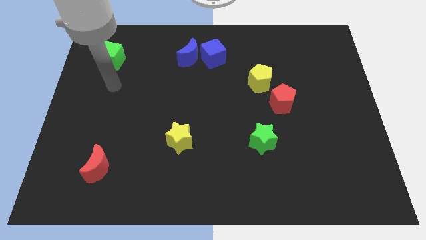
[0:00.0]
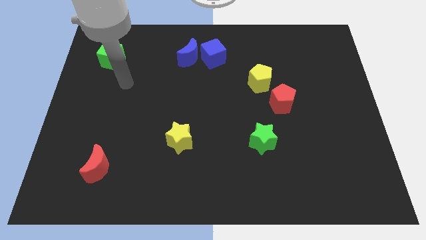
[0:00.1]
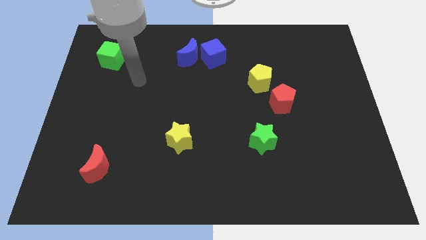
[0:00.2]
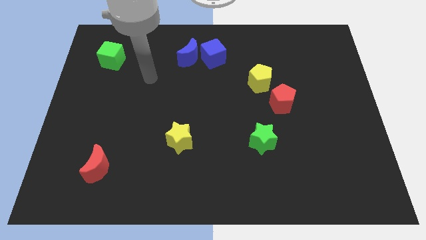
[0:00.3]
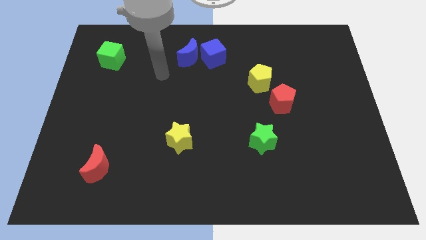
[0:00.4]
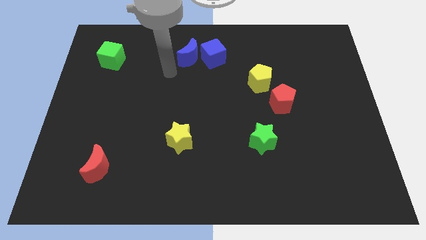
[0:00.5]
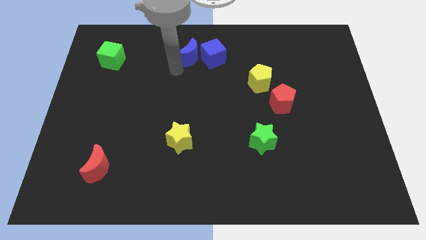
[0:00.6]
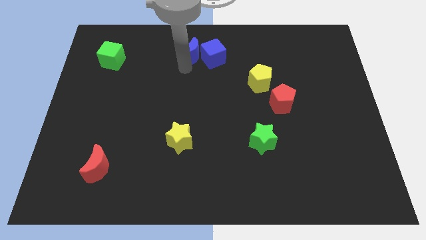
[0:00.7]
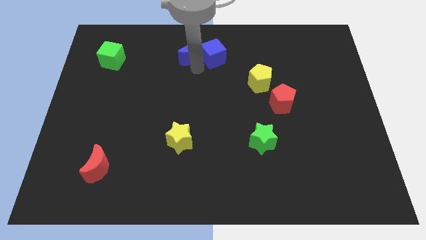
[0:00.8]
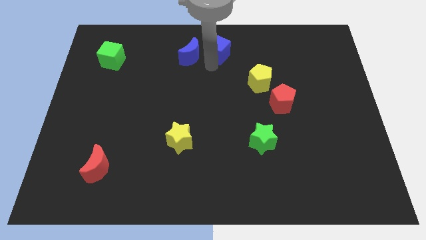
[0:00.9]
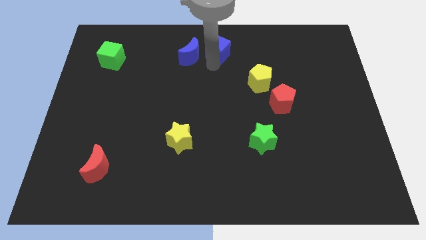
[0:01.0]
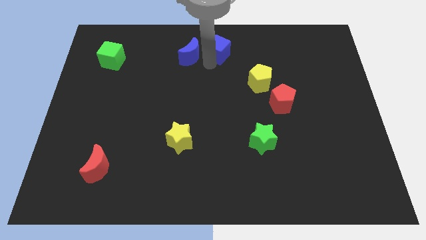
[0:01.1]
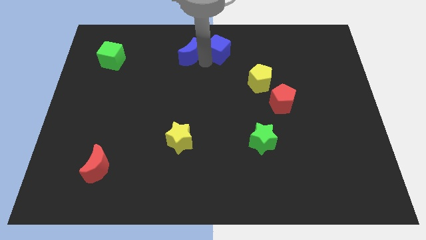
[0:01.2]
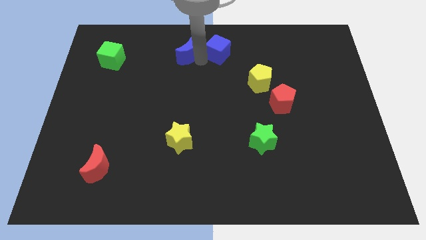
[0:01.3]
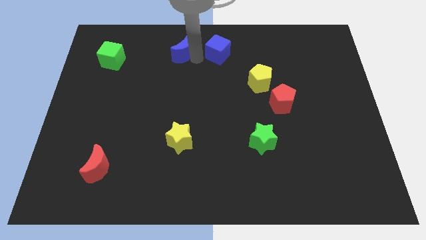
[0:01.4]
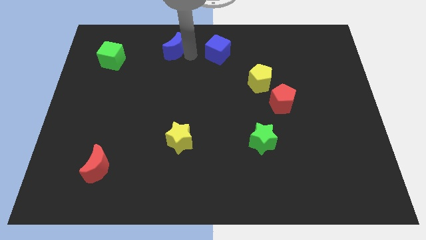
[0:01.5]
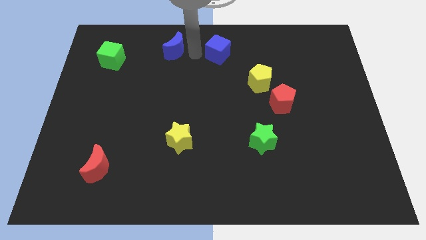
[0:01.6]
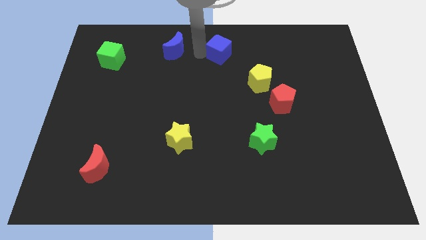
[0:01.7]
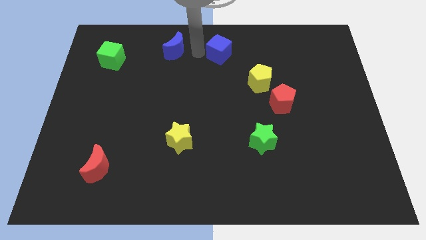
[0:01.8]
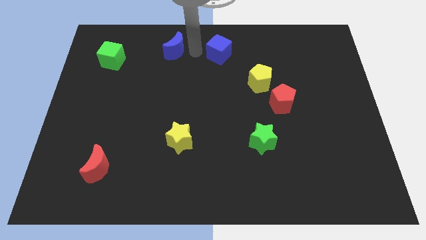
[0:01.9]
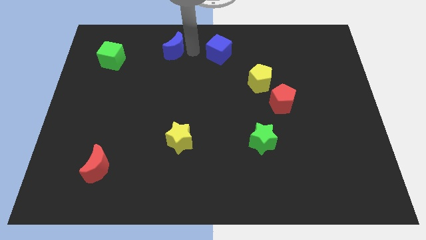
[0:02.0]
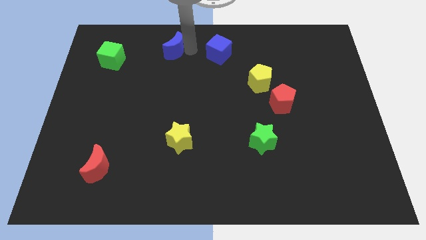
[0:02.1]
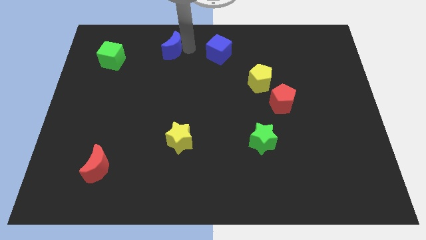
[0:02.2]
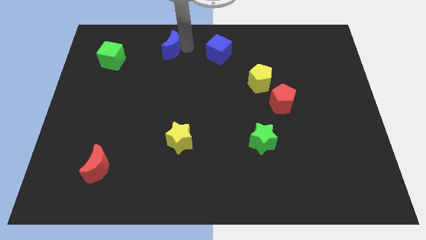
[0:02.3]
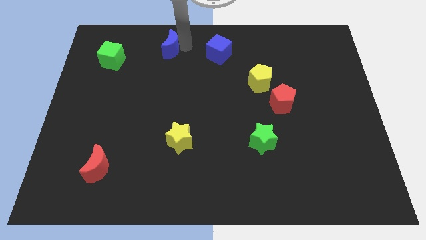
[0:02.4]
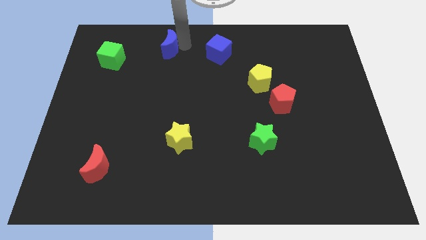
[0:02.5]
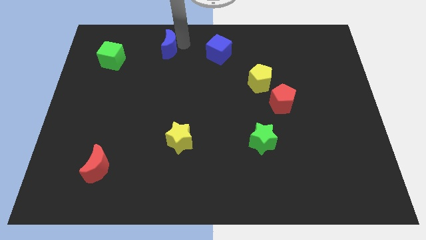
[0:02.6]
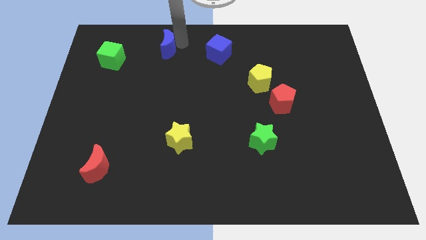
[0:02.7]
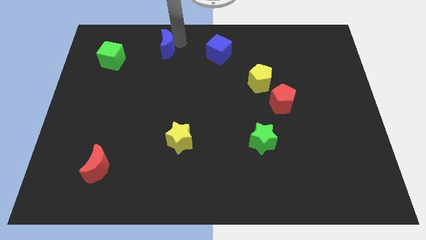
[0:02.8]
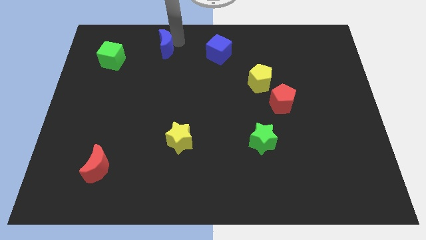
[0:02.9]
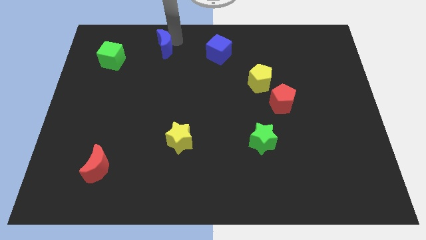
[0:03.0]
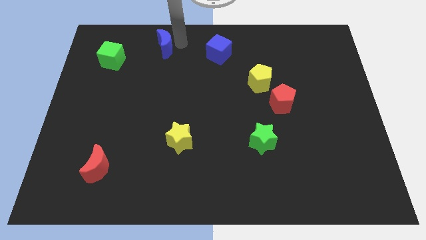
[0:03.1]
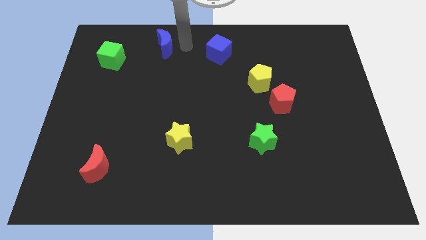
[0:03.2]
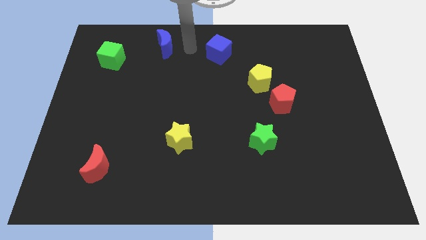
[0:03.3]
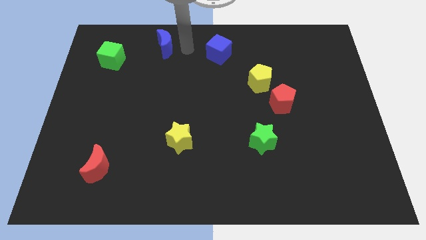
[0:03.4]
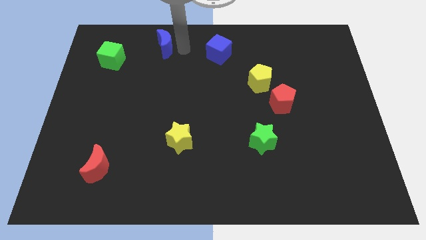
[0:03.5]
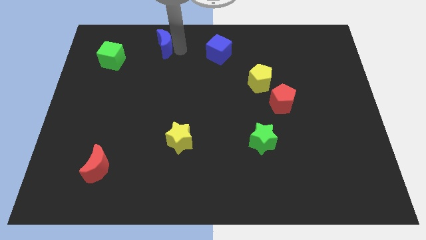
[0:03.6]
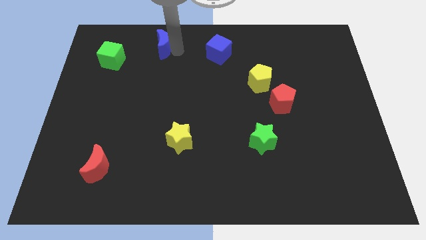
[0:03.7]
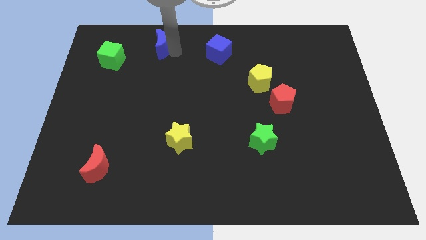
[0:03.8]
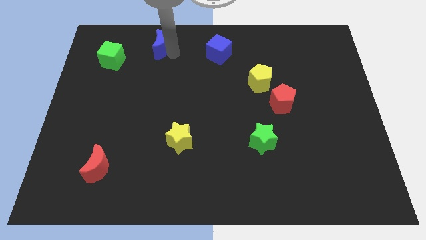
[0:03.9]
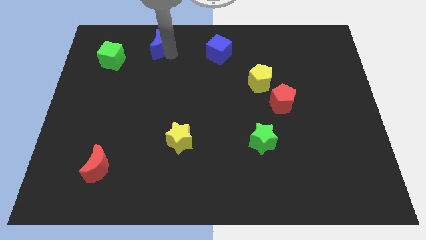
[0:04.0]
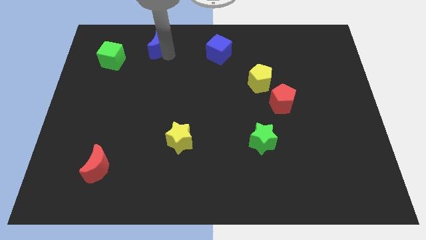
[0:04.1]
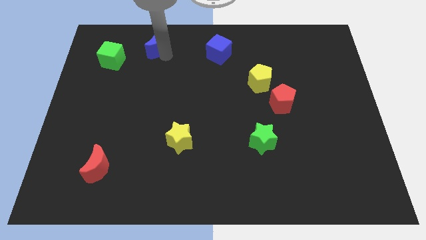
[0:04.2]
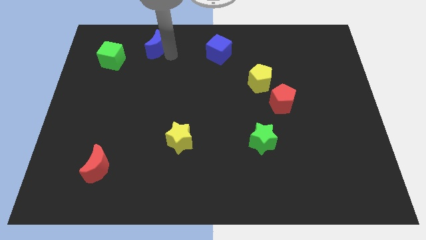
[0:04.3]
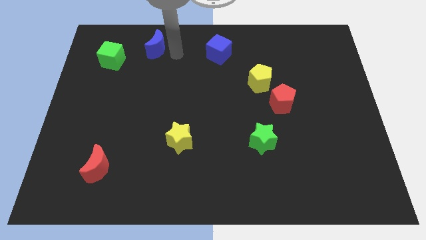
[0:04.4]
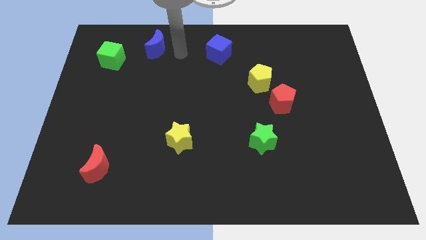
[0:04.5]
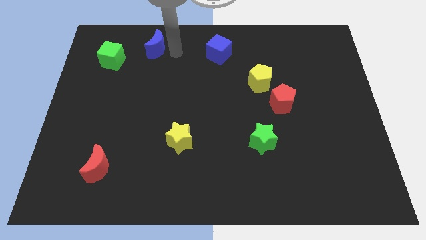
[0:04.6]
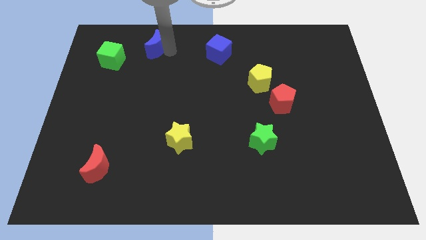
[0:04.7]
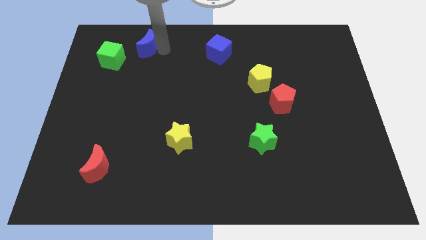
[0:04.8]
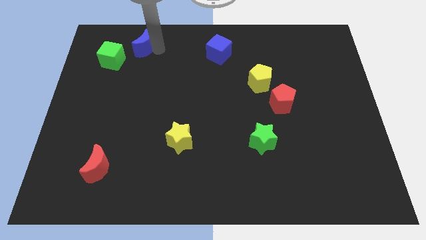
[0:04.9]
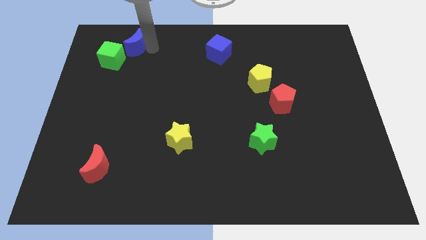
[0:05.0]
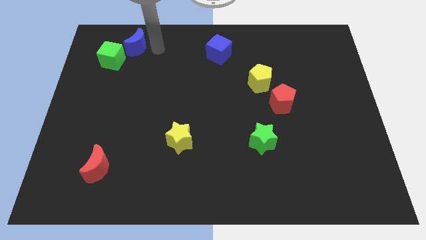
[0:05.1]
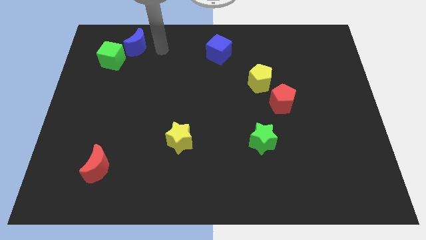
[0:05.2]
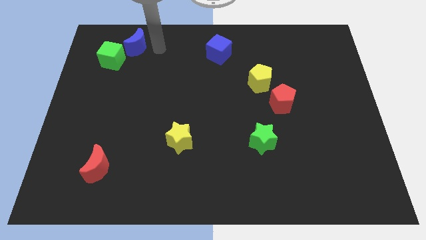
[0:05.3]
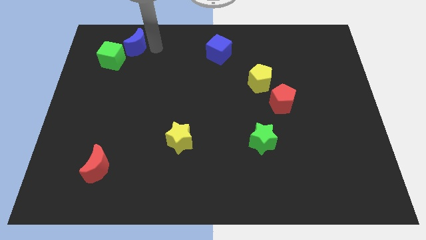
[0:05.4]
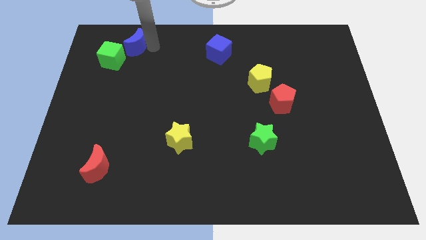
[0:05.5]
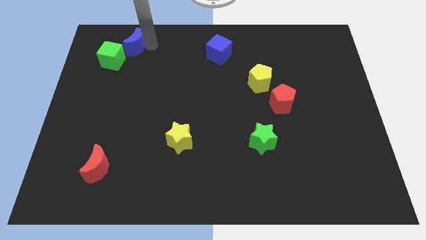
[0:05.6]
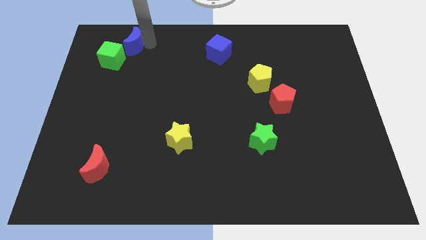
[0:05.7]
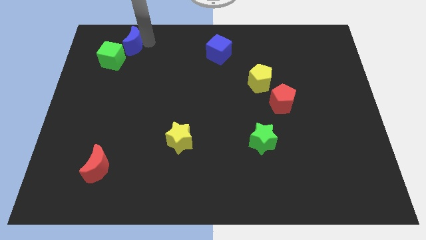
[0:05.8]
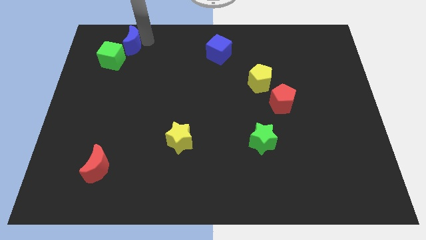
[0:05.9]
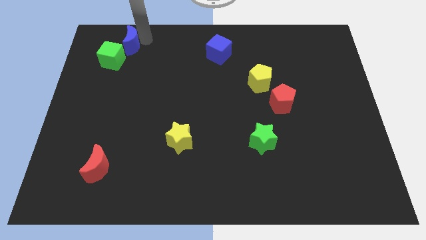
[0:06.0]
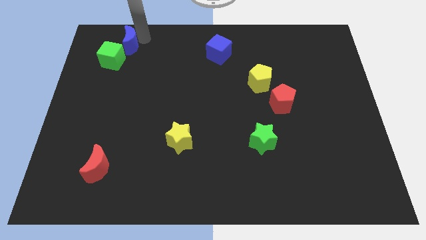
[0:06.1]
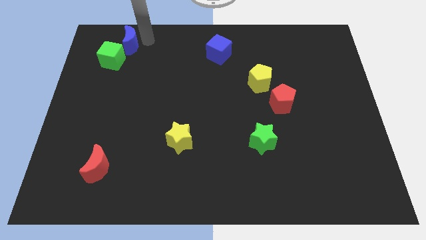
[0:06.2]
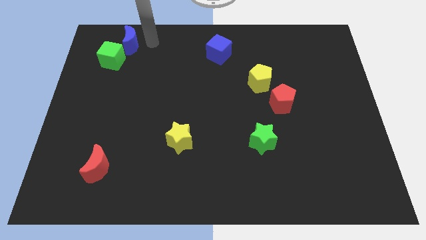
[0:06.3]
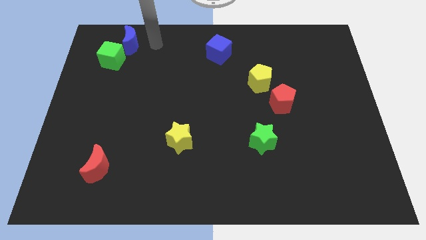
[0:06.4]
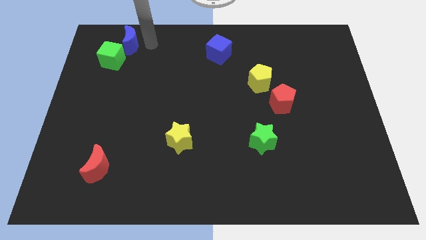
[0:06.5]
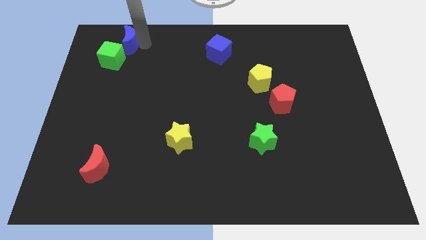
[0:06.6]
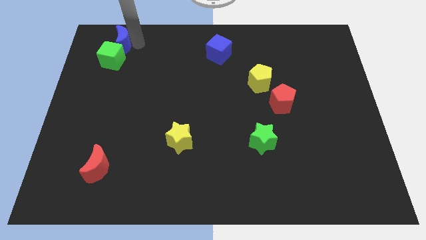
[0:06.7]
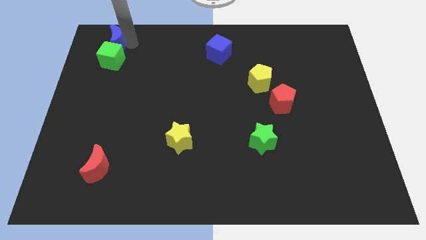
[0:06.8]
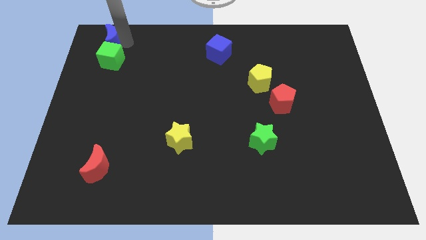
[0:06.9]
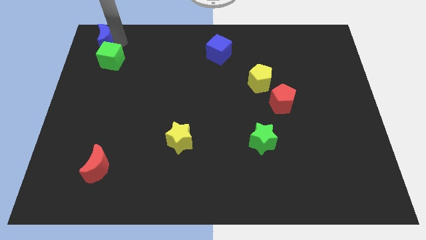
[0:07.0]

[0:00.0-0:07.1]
move the blue moon to the upper left corner
